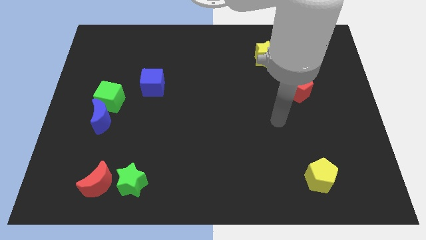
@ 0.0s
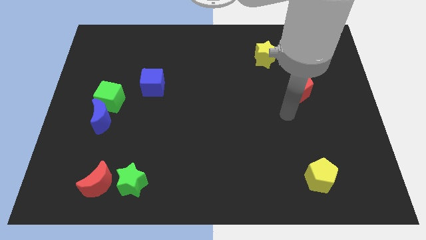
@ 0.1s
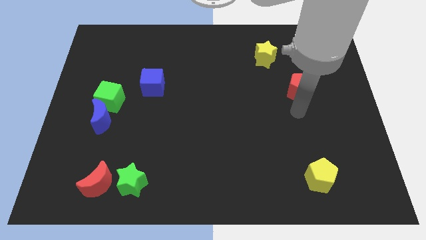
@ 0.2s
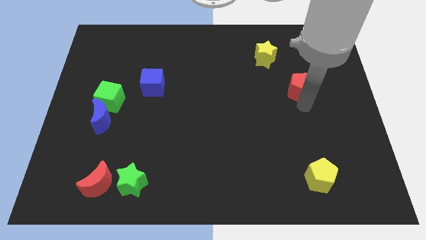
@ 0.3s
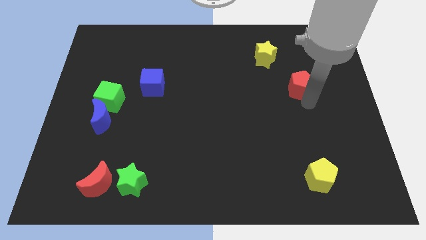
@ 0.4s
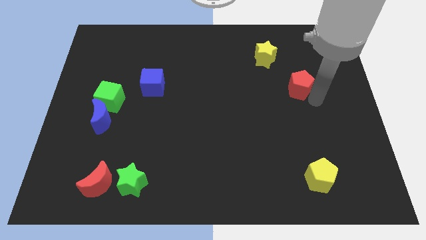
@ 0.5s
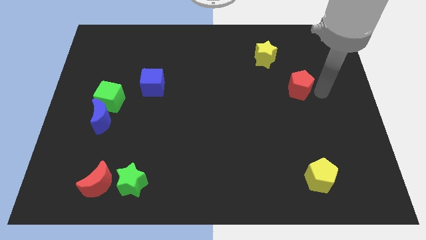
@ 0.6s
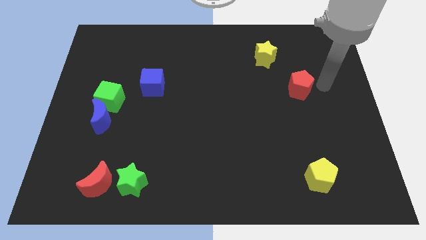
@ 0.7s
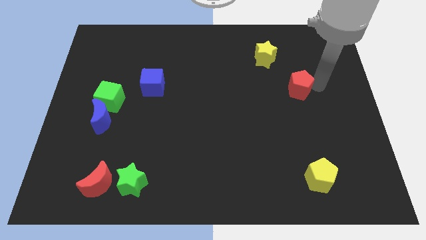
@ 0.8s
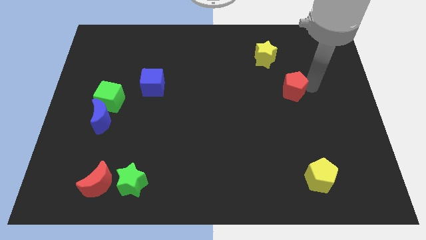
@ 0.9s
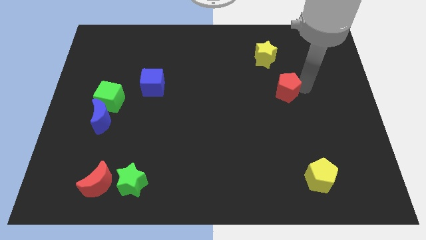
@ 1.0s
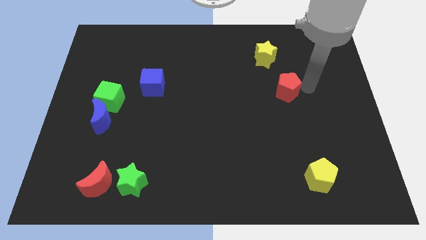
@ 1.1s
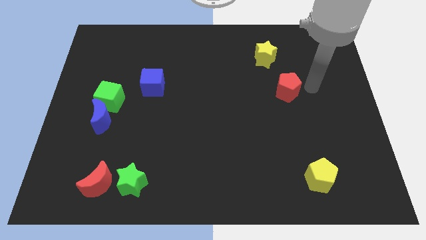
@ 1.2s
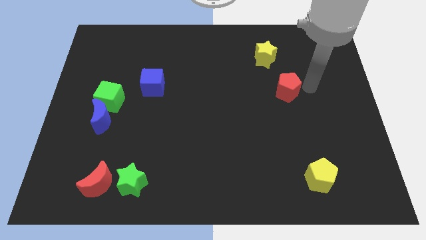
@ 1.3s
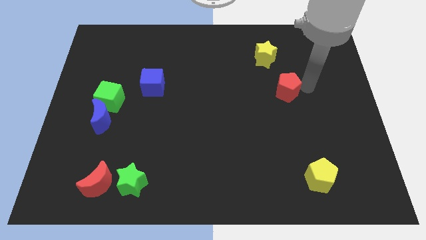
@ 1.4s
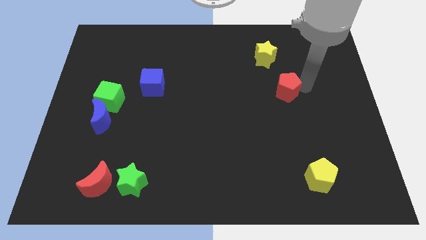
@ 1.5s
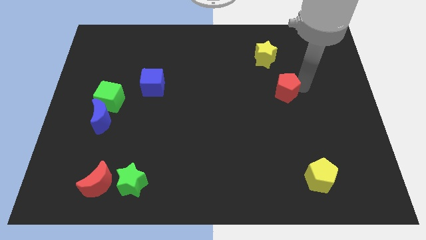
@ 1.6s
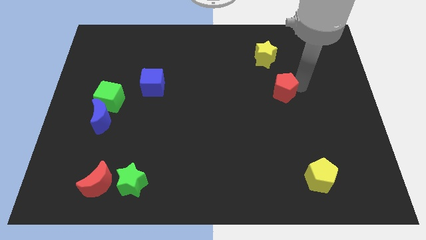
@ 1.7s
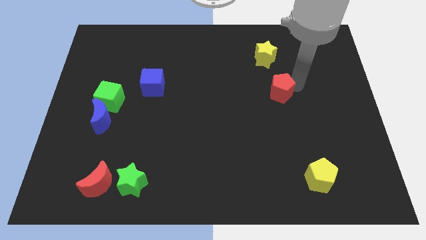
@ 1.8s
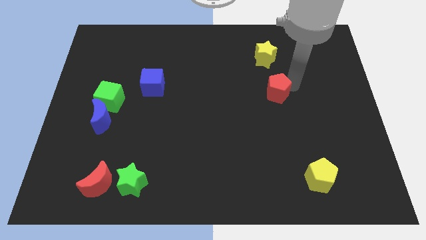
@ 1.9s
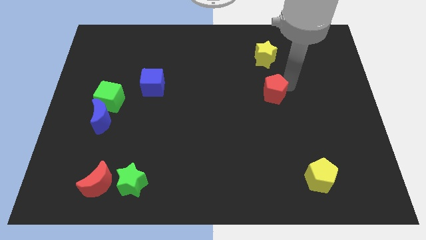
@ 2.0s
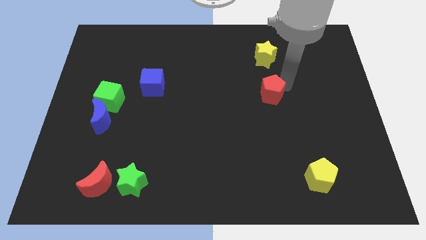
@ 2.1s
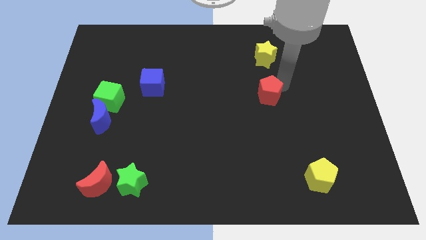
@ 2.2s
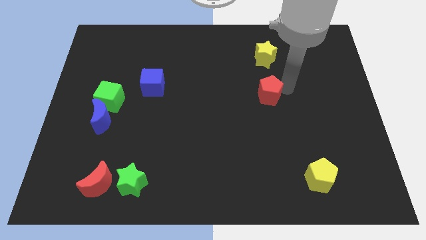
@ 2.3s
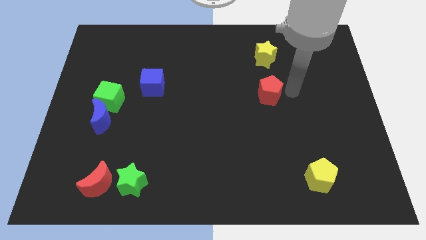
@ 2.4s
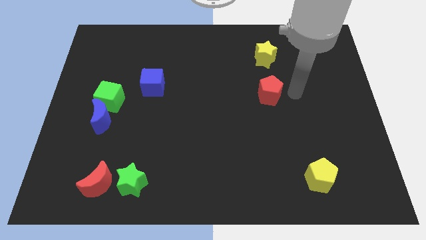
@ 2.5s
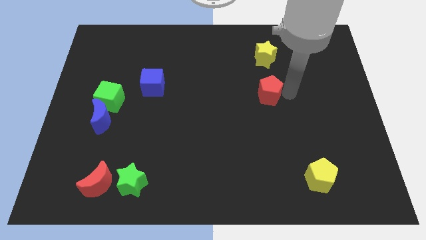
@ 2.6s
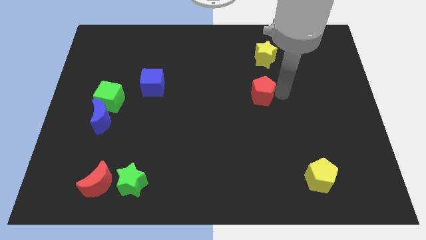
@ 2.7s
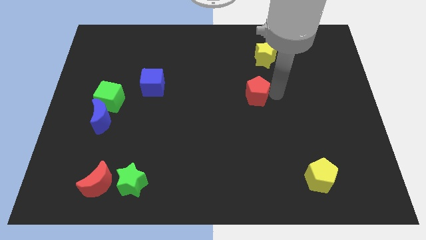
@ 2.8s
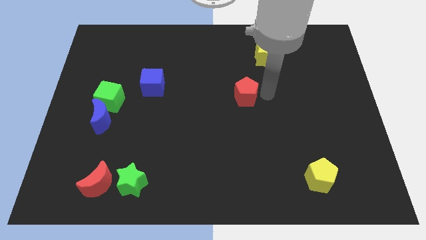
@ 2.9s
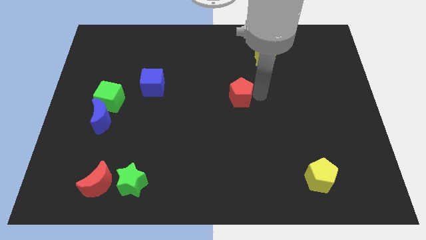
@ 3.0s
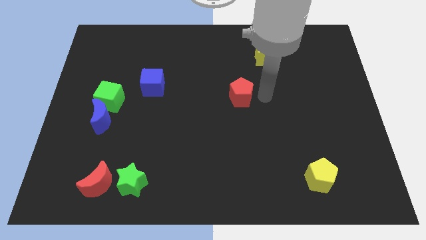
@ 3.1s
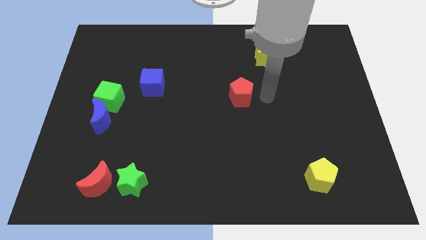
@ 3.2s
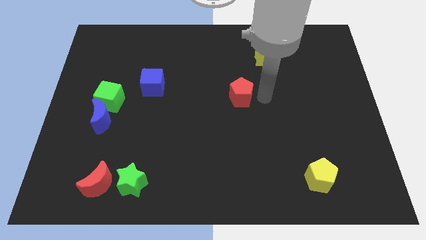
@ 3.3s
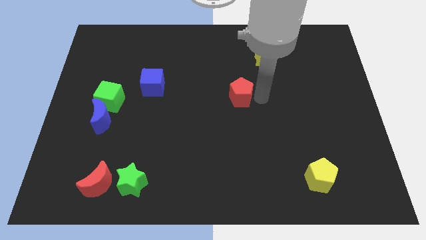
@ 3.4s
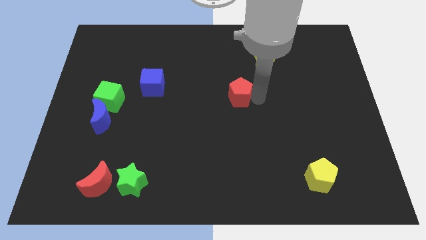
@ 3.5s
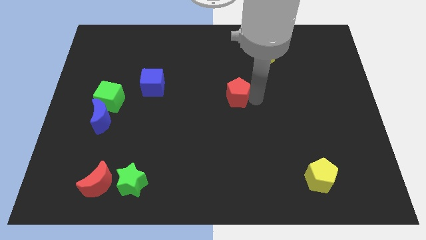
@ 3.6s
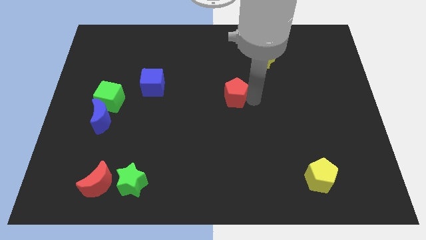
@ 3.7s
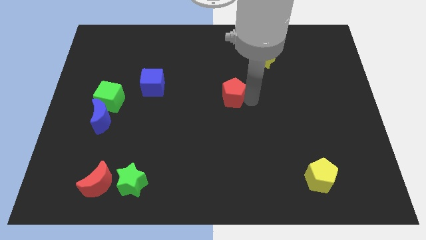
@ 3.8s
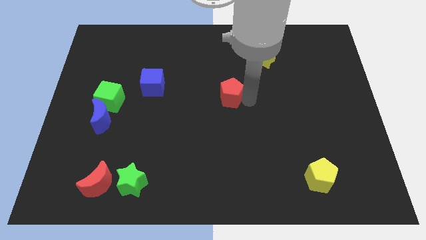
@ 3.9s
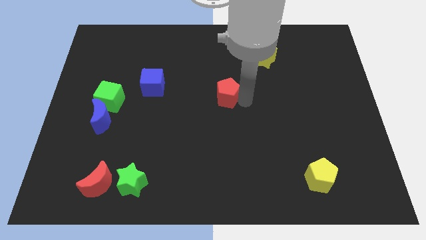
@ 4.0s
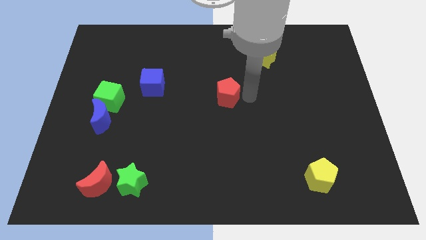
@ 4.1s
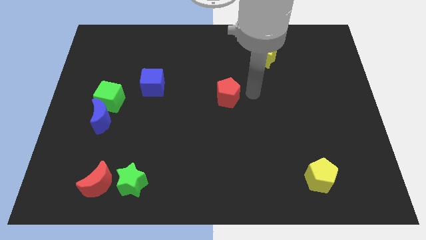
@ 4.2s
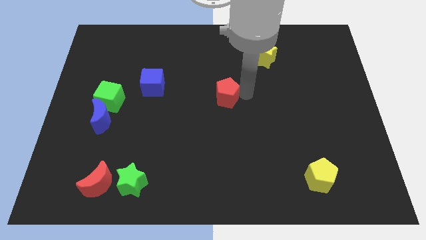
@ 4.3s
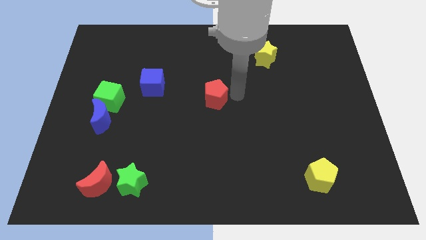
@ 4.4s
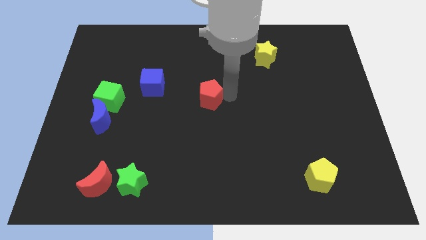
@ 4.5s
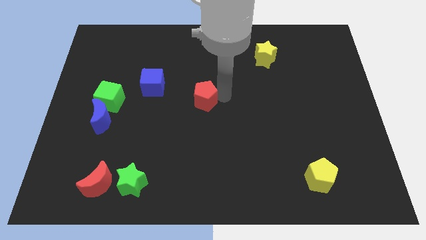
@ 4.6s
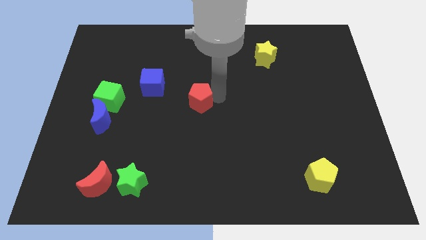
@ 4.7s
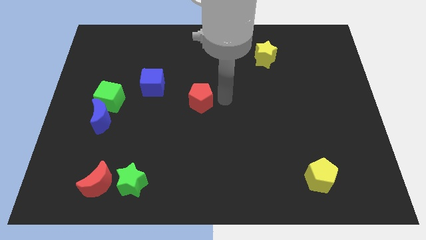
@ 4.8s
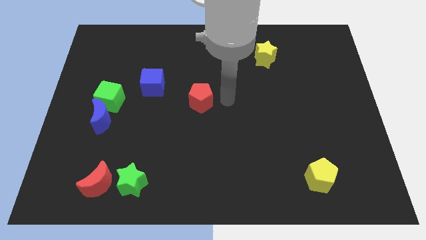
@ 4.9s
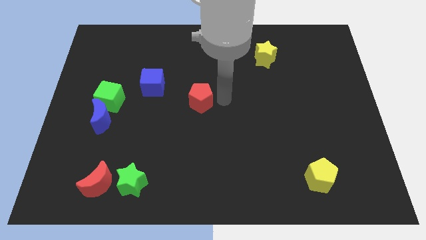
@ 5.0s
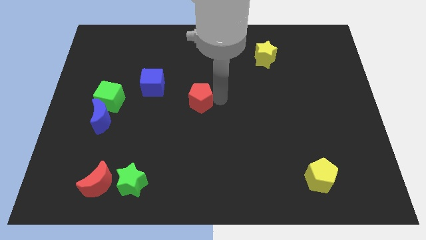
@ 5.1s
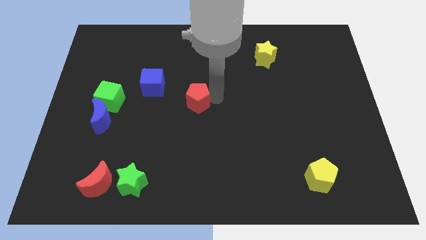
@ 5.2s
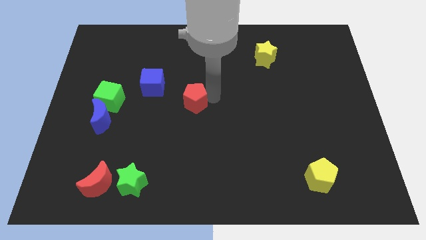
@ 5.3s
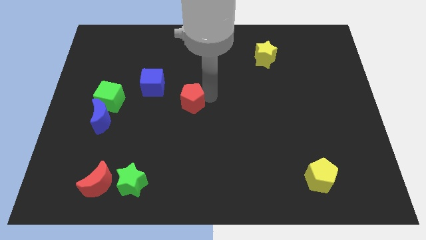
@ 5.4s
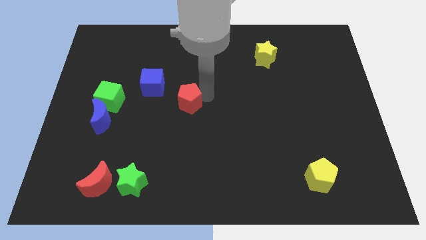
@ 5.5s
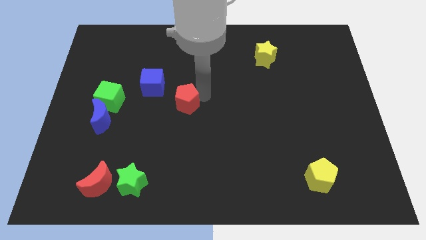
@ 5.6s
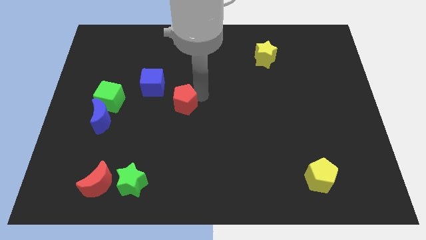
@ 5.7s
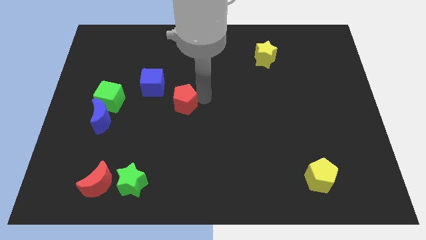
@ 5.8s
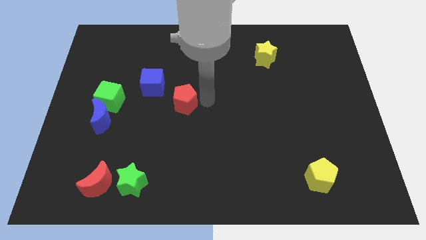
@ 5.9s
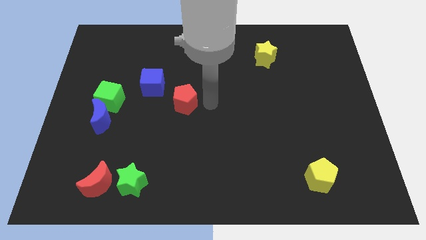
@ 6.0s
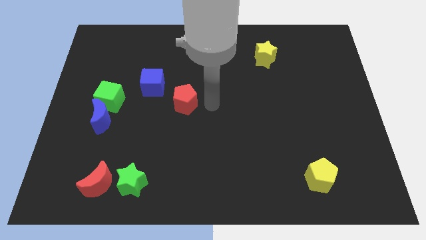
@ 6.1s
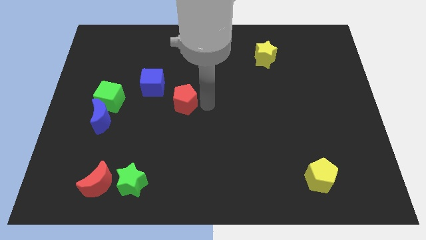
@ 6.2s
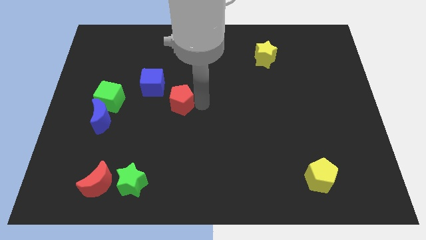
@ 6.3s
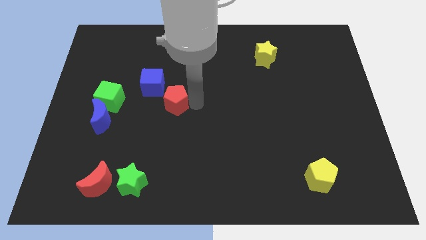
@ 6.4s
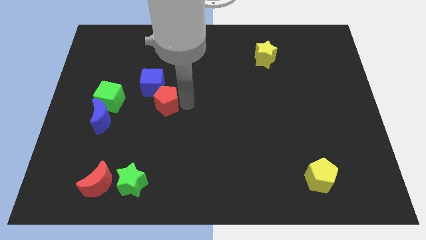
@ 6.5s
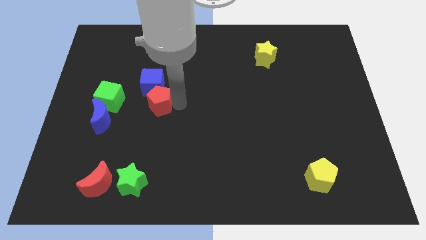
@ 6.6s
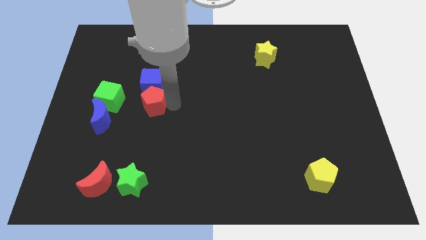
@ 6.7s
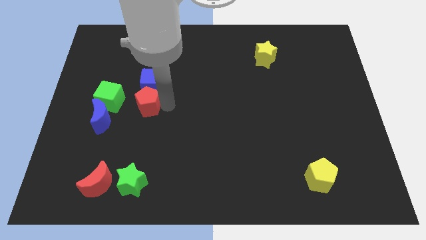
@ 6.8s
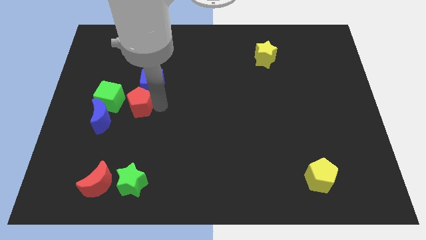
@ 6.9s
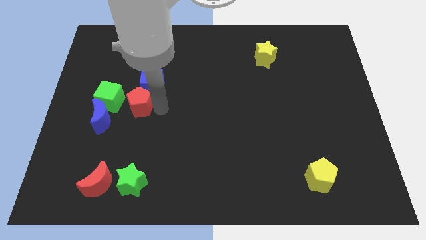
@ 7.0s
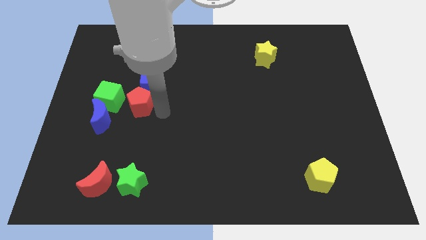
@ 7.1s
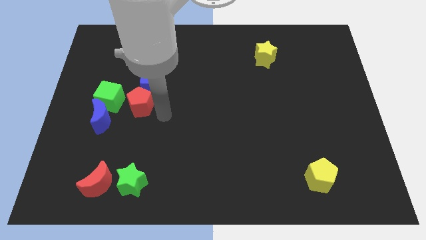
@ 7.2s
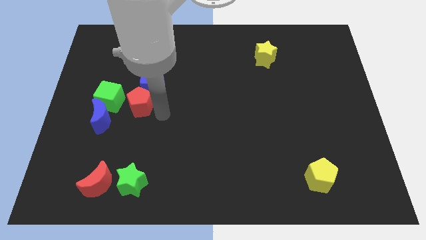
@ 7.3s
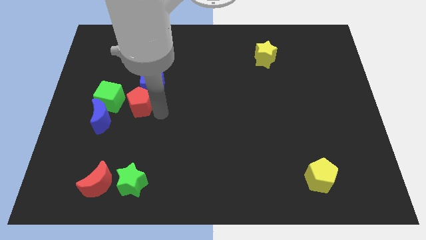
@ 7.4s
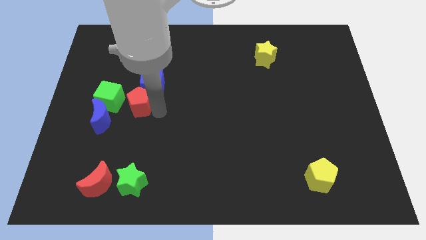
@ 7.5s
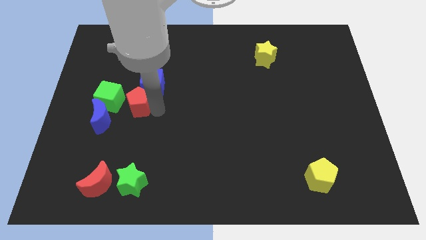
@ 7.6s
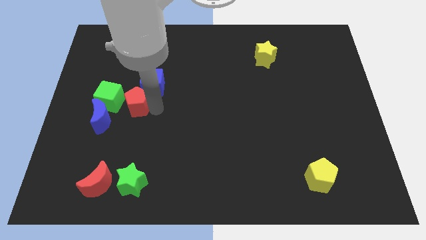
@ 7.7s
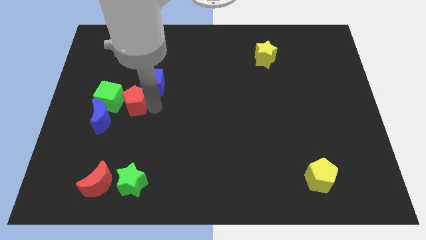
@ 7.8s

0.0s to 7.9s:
move the red pentagon towards the green cube
